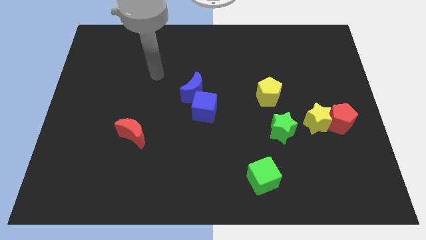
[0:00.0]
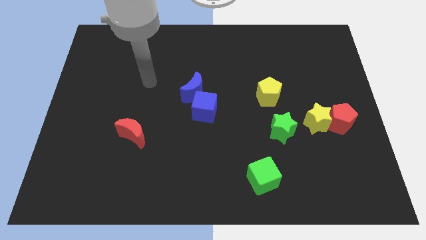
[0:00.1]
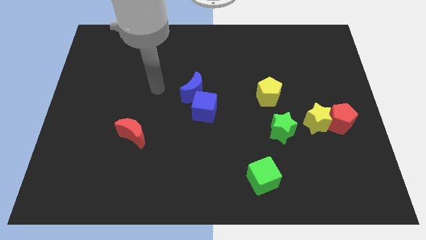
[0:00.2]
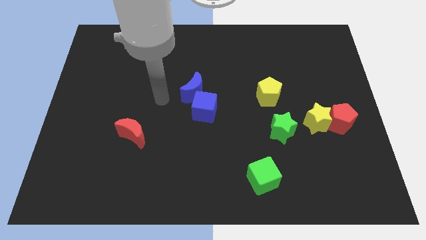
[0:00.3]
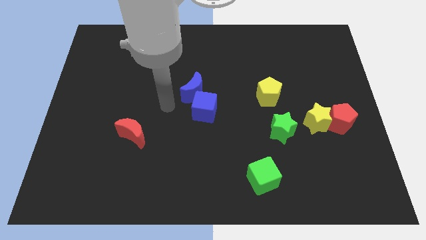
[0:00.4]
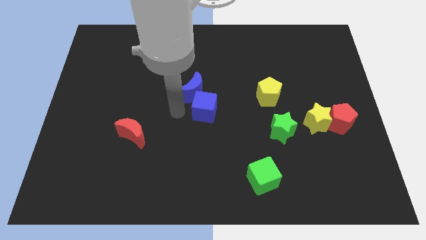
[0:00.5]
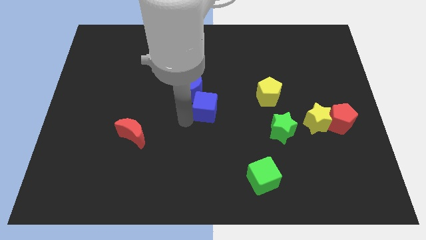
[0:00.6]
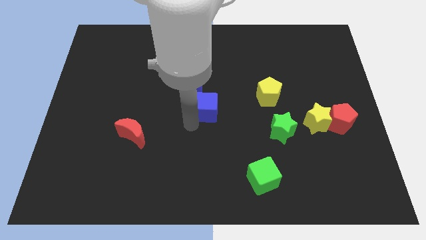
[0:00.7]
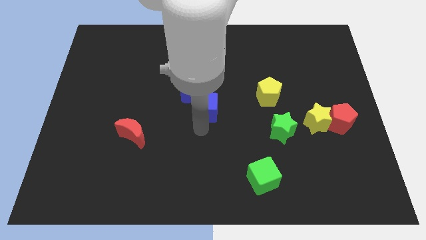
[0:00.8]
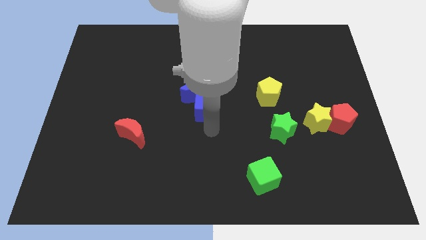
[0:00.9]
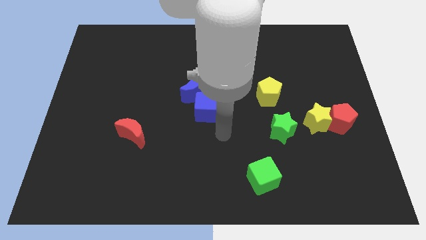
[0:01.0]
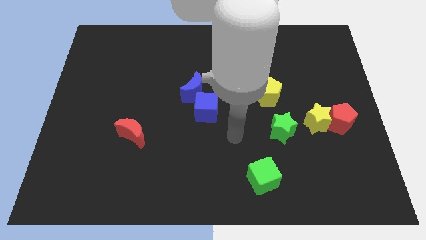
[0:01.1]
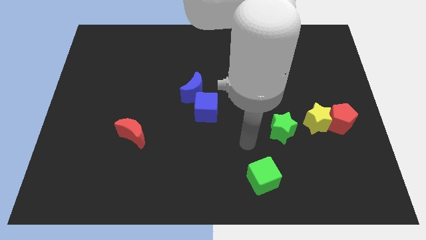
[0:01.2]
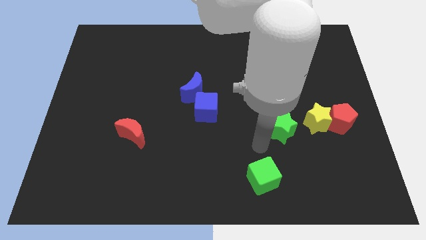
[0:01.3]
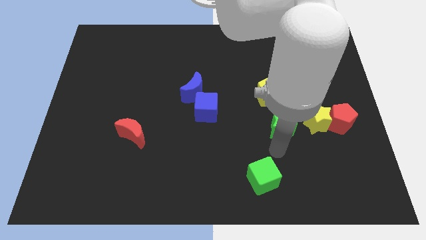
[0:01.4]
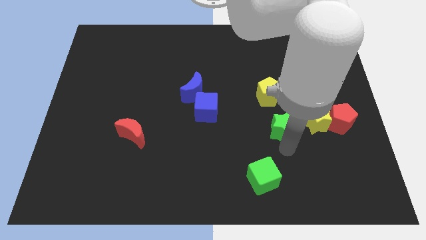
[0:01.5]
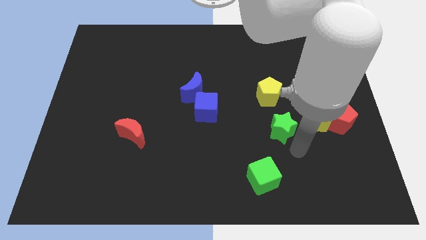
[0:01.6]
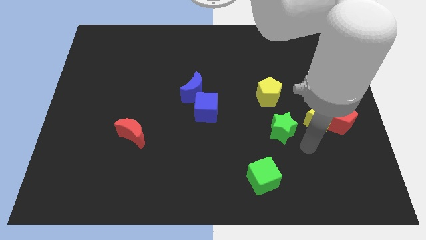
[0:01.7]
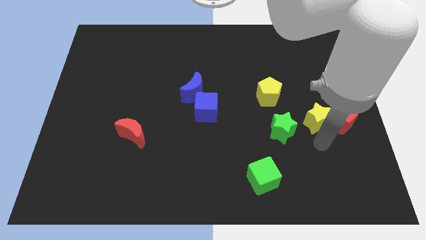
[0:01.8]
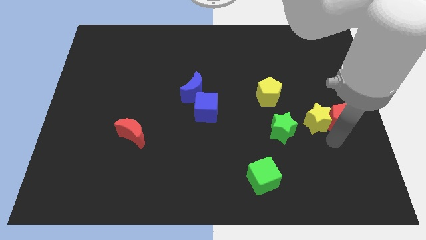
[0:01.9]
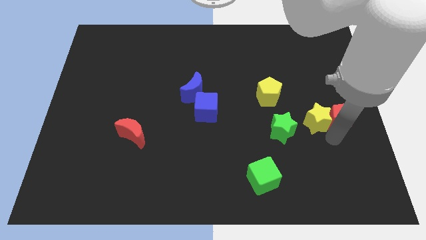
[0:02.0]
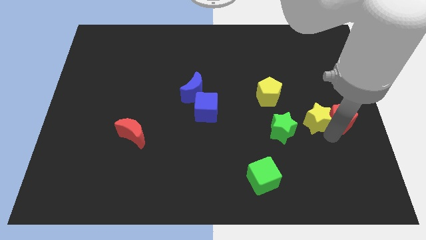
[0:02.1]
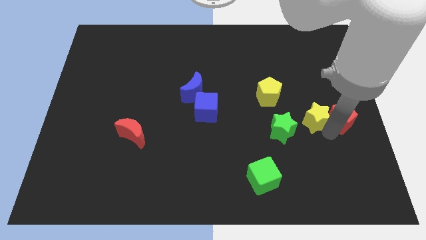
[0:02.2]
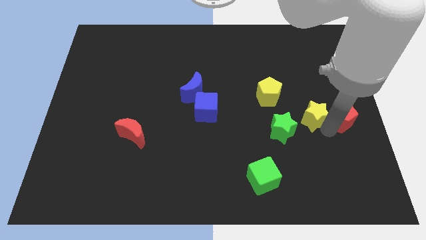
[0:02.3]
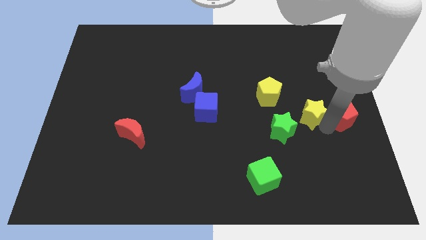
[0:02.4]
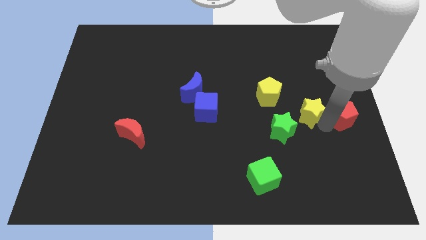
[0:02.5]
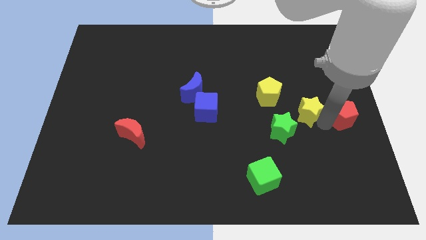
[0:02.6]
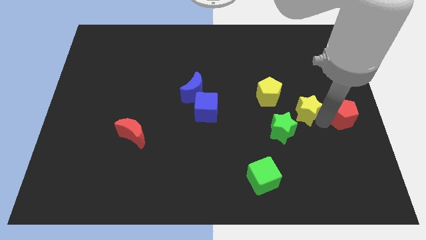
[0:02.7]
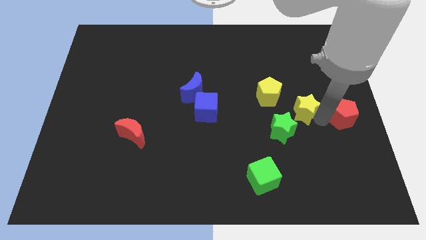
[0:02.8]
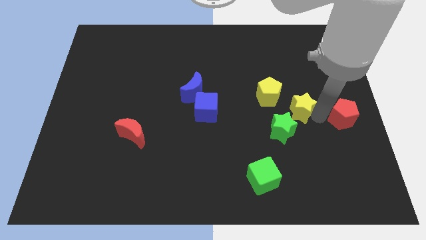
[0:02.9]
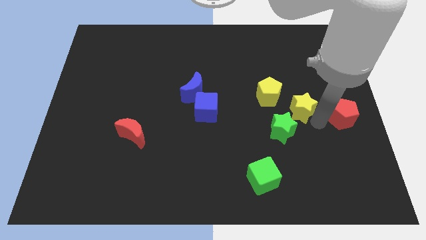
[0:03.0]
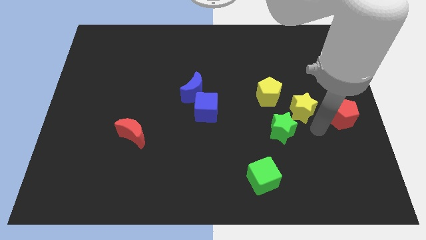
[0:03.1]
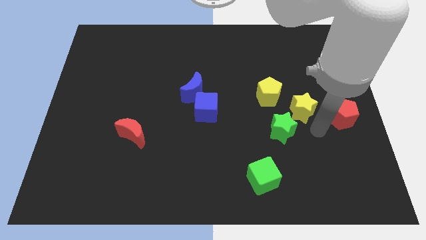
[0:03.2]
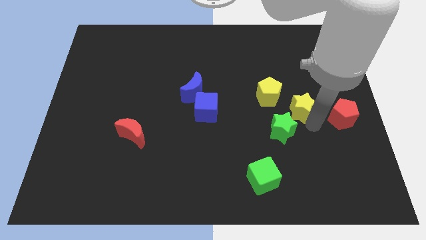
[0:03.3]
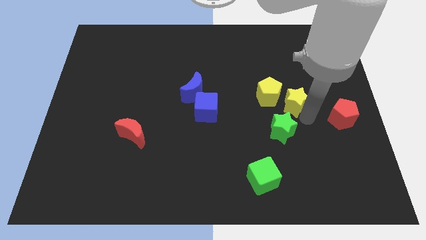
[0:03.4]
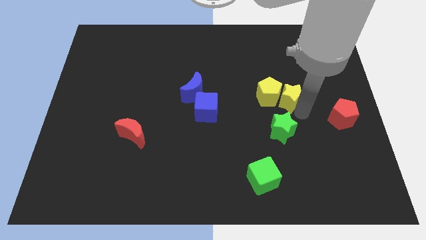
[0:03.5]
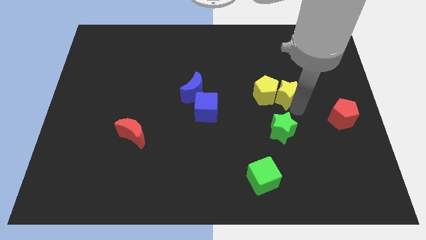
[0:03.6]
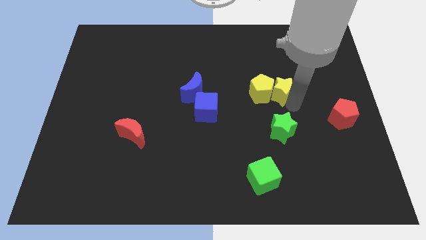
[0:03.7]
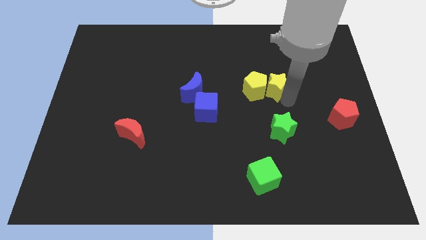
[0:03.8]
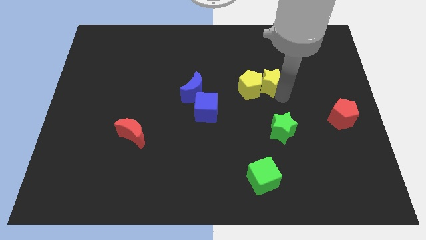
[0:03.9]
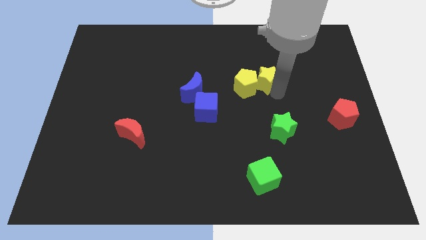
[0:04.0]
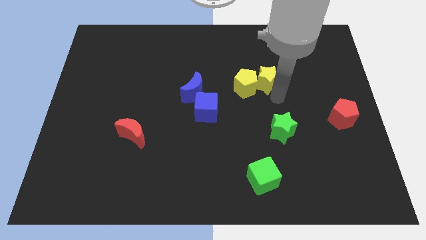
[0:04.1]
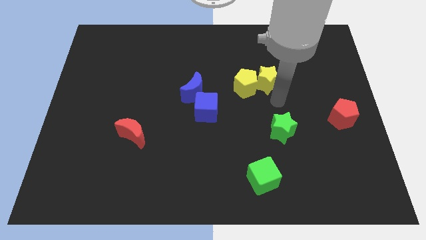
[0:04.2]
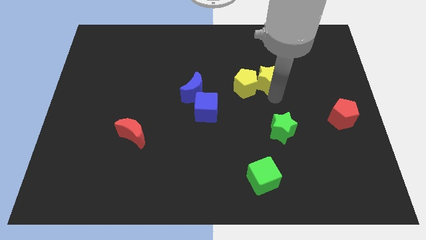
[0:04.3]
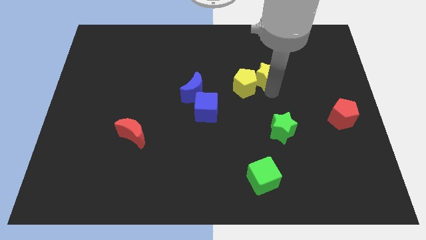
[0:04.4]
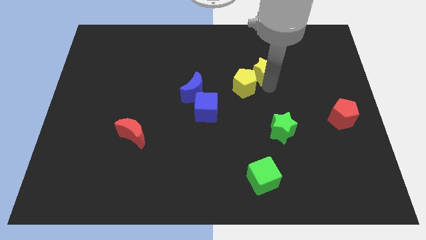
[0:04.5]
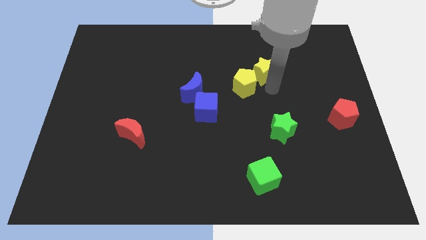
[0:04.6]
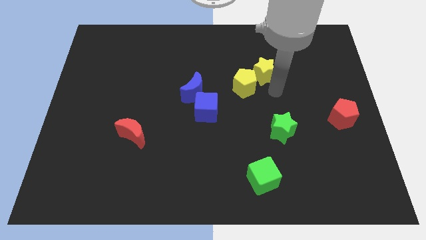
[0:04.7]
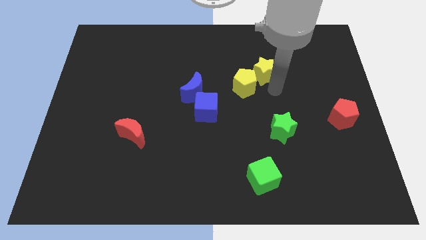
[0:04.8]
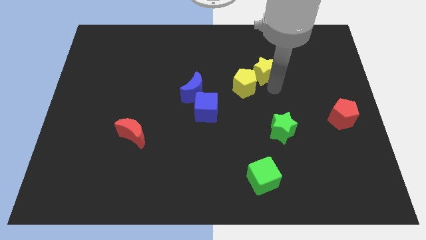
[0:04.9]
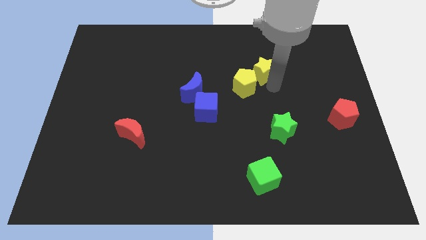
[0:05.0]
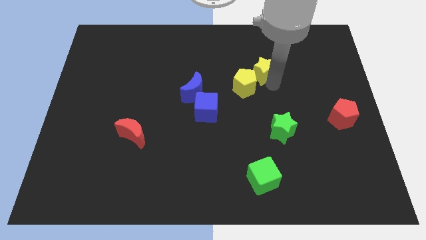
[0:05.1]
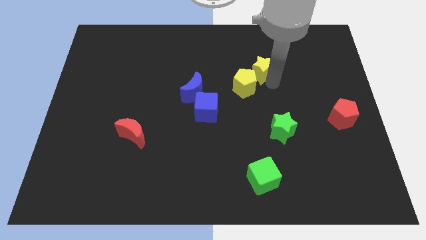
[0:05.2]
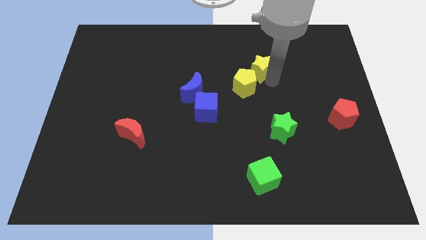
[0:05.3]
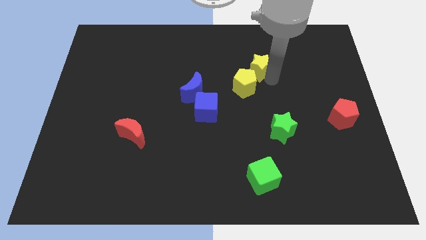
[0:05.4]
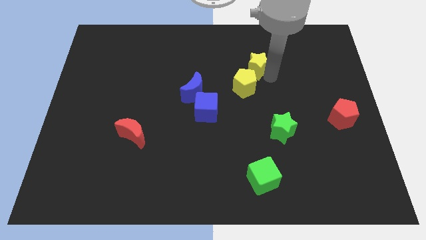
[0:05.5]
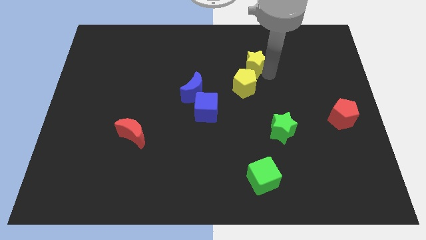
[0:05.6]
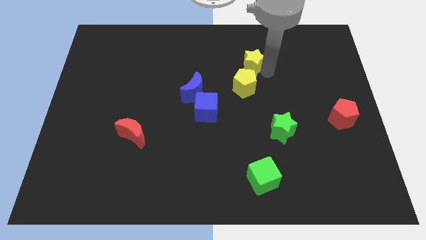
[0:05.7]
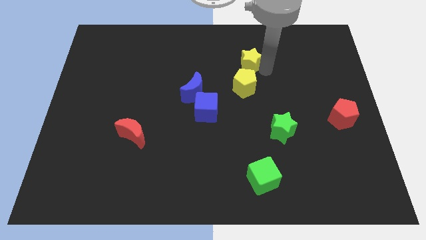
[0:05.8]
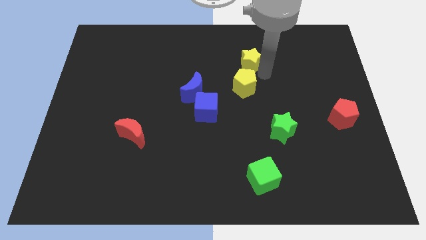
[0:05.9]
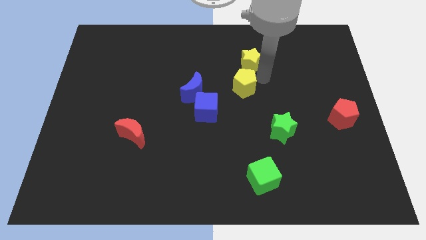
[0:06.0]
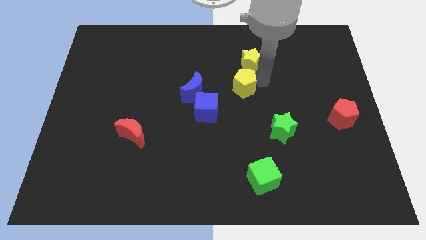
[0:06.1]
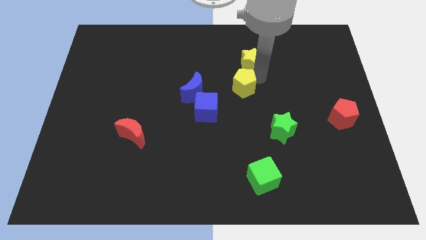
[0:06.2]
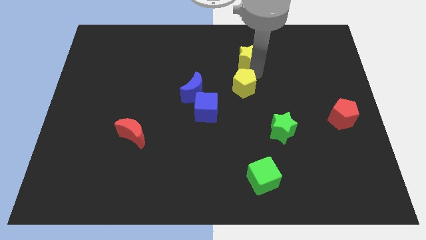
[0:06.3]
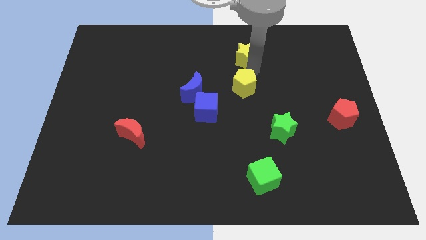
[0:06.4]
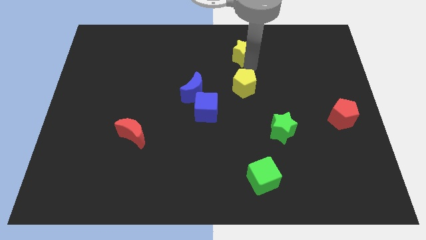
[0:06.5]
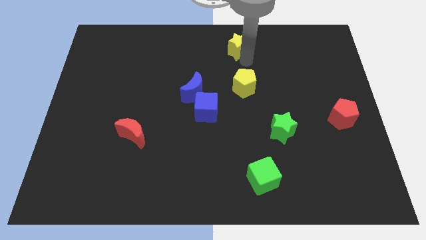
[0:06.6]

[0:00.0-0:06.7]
slide the yellow star to the top side
